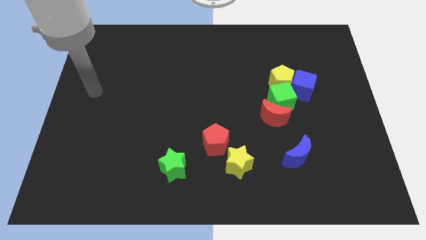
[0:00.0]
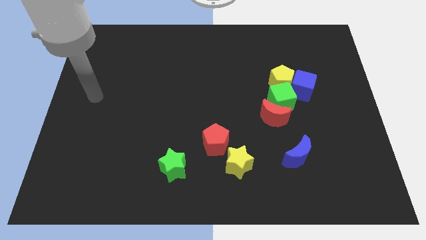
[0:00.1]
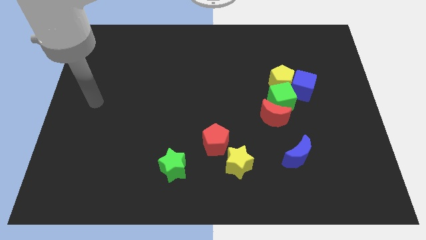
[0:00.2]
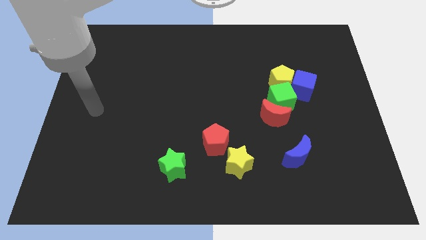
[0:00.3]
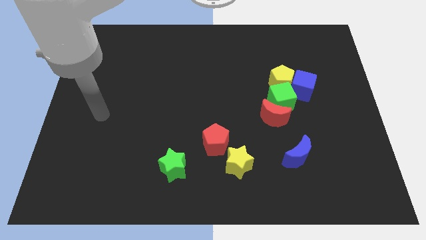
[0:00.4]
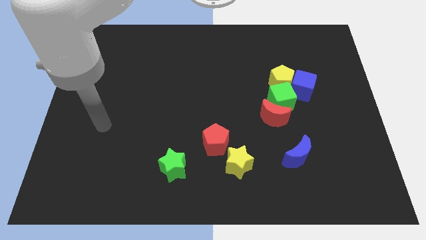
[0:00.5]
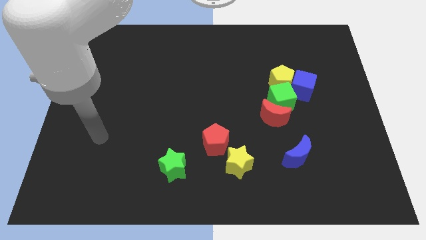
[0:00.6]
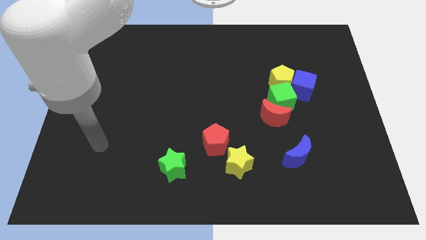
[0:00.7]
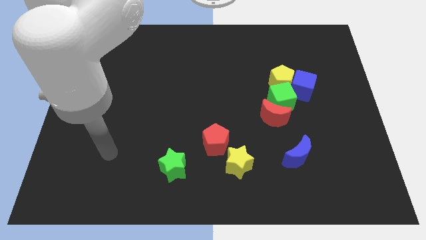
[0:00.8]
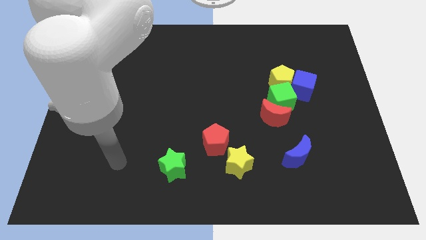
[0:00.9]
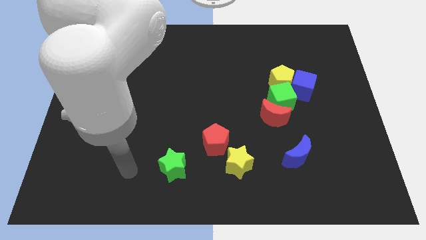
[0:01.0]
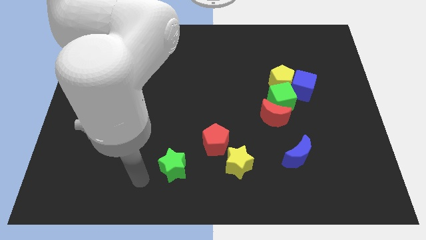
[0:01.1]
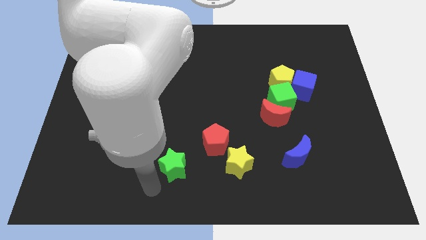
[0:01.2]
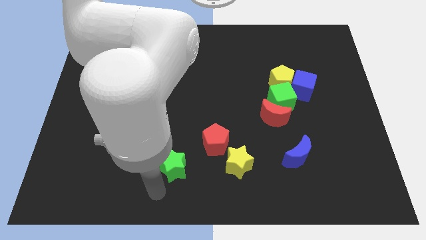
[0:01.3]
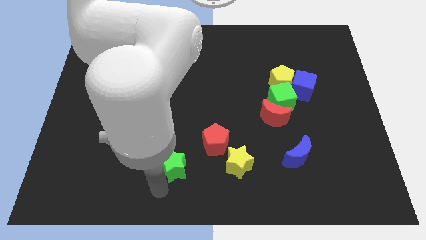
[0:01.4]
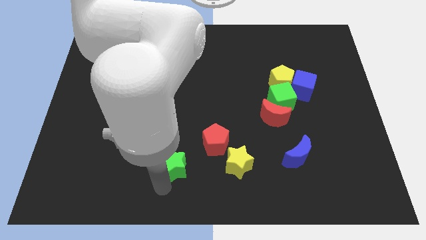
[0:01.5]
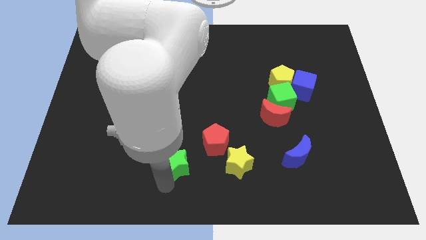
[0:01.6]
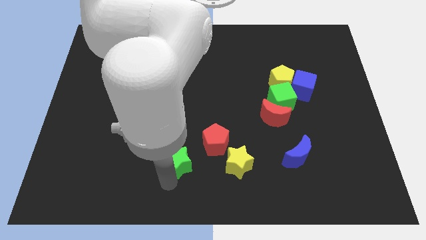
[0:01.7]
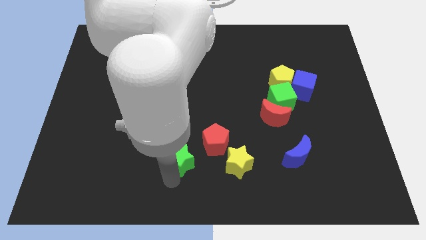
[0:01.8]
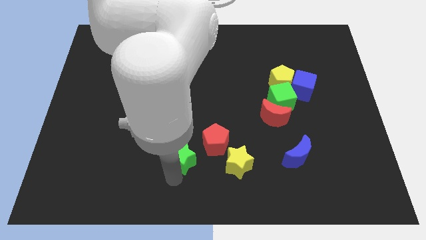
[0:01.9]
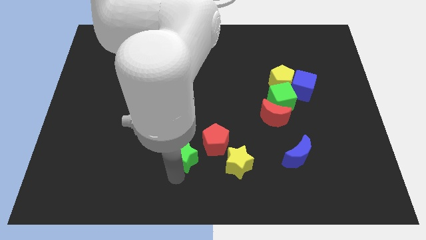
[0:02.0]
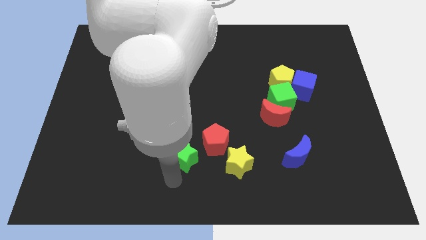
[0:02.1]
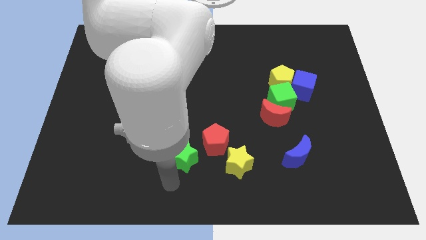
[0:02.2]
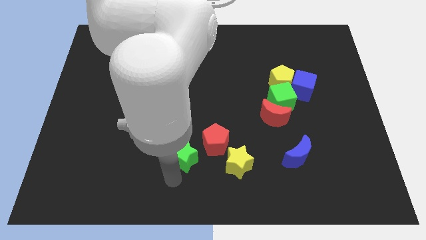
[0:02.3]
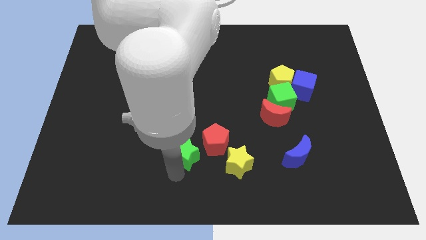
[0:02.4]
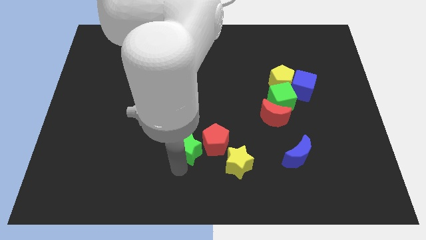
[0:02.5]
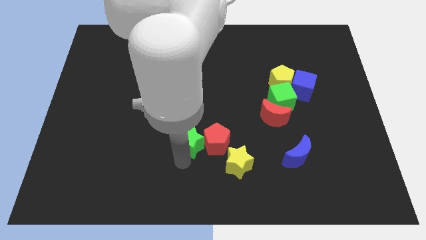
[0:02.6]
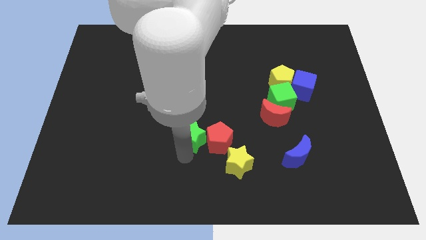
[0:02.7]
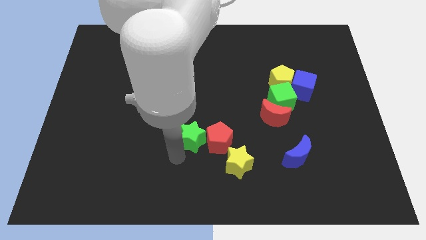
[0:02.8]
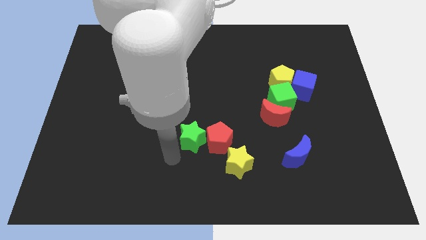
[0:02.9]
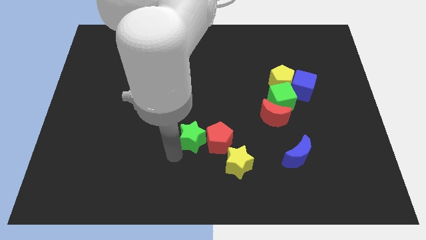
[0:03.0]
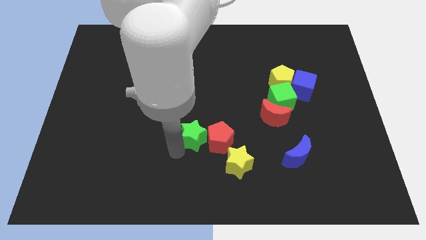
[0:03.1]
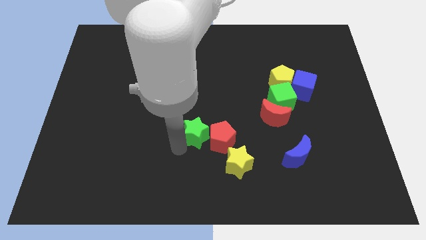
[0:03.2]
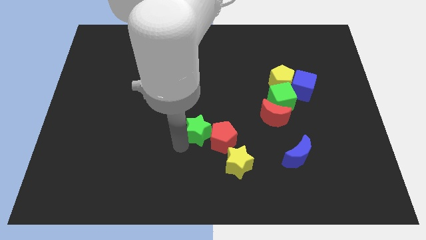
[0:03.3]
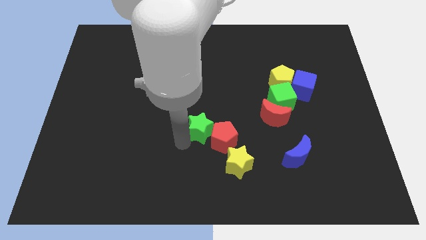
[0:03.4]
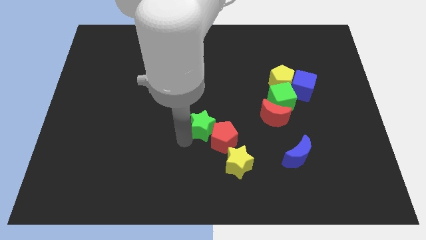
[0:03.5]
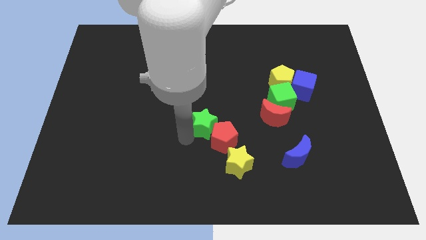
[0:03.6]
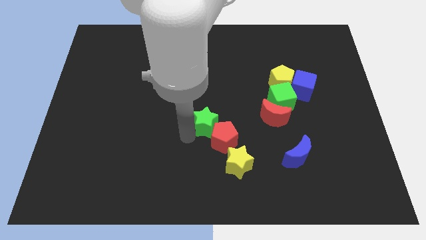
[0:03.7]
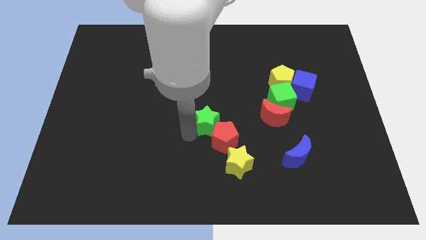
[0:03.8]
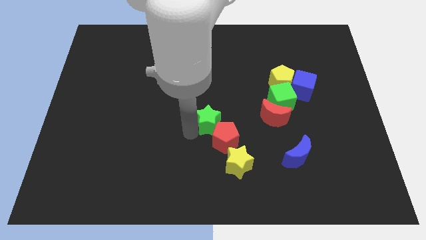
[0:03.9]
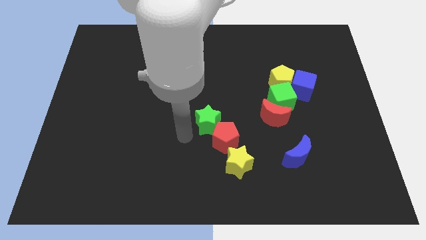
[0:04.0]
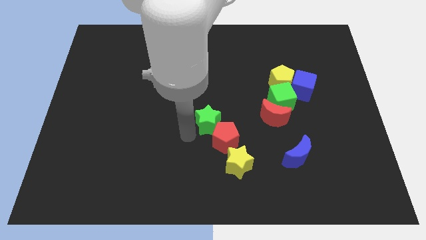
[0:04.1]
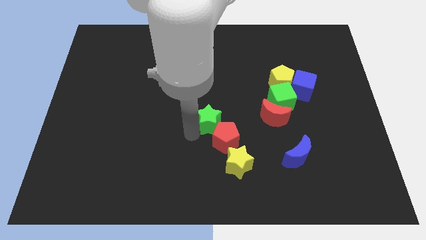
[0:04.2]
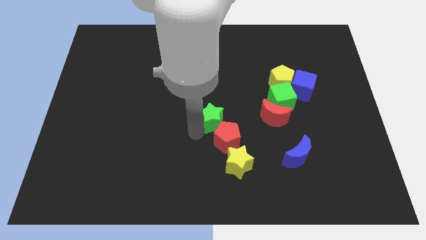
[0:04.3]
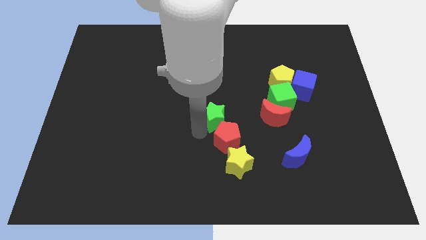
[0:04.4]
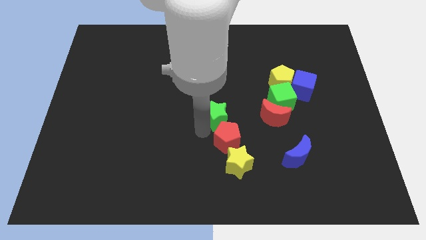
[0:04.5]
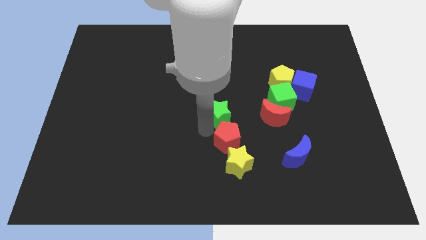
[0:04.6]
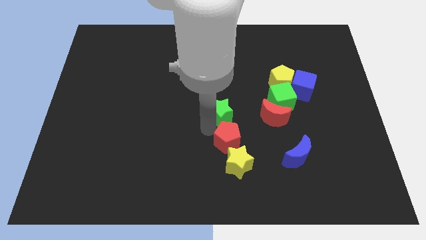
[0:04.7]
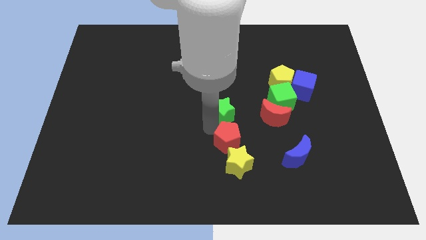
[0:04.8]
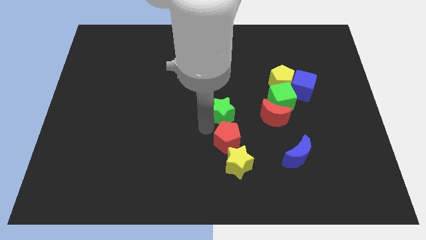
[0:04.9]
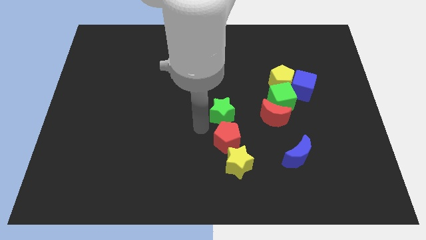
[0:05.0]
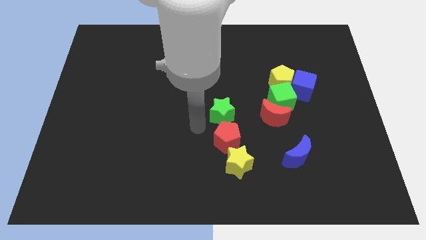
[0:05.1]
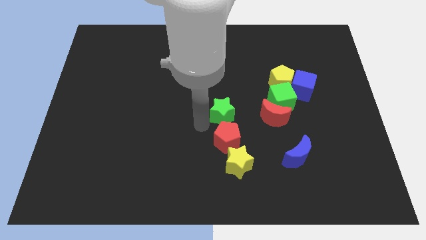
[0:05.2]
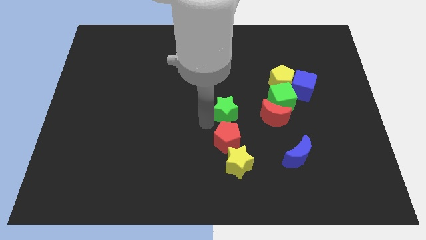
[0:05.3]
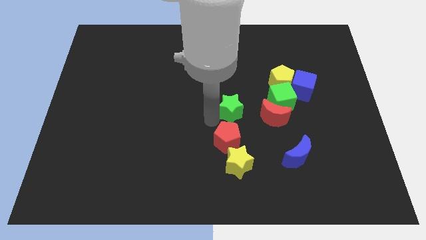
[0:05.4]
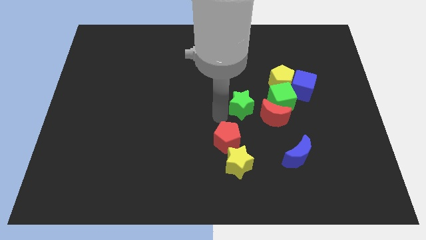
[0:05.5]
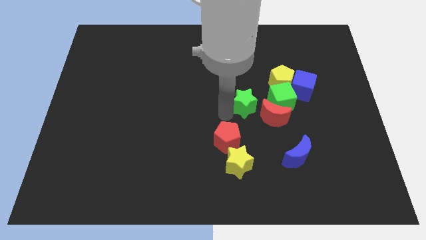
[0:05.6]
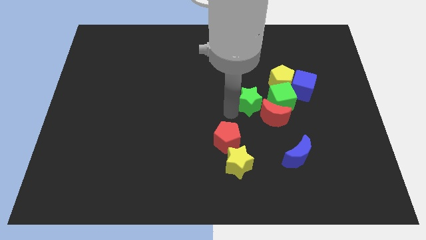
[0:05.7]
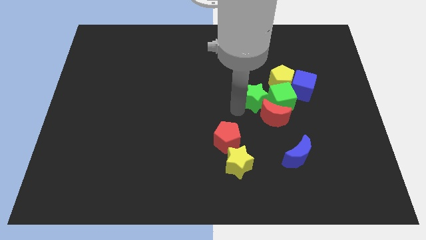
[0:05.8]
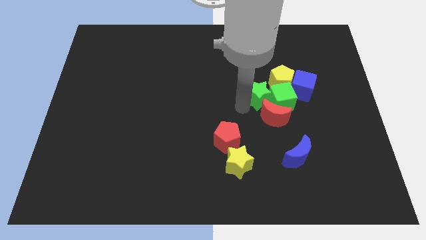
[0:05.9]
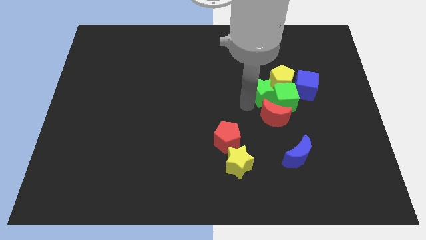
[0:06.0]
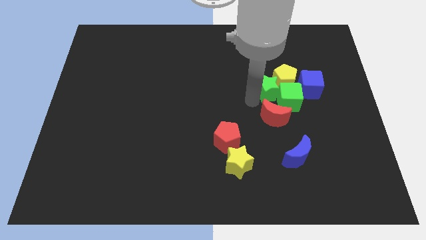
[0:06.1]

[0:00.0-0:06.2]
push the green star next to the yellow pentagon
